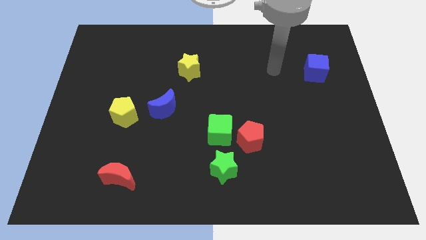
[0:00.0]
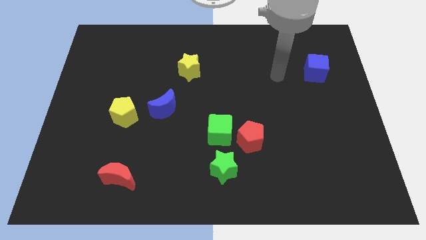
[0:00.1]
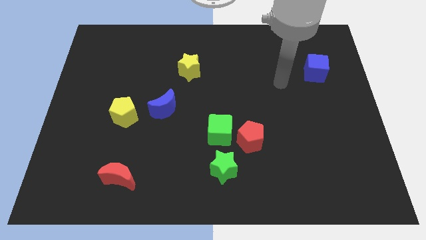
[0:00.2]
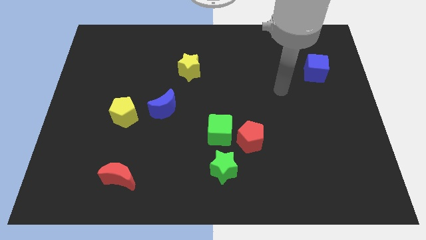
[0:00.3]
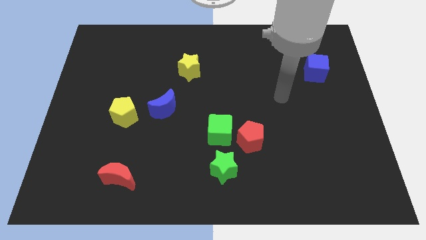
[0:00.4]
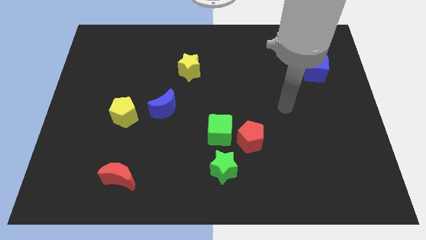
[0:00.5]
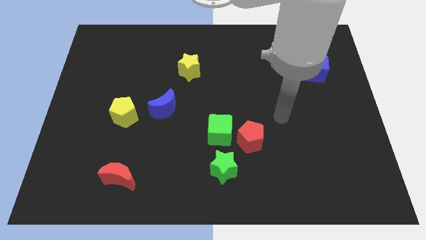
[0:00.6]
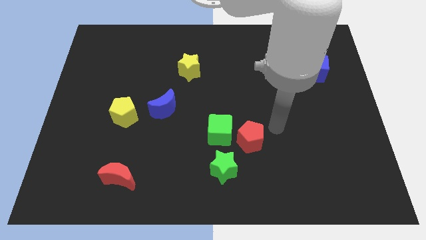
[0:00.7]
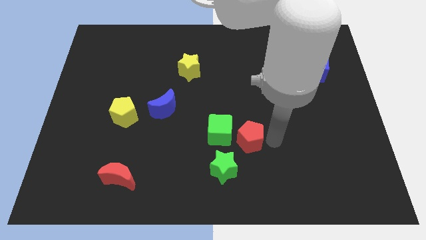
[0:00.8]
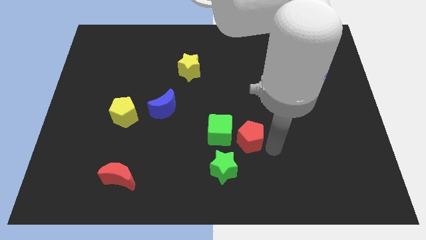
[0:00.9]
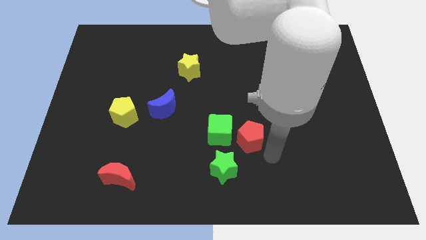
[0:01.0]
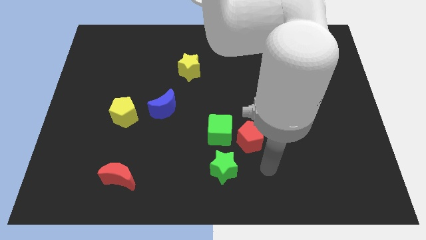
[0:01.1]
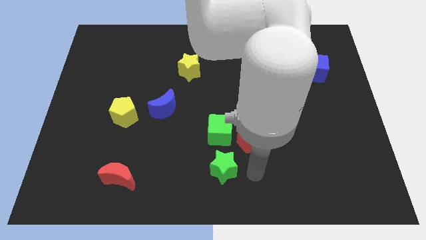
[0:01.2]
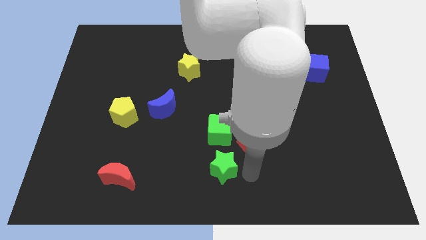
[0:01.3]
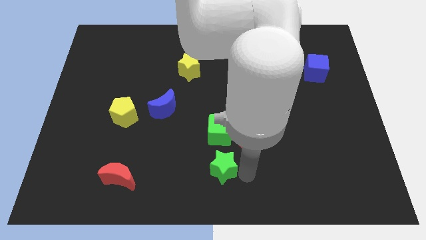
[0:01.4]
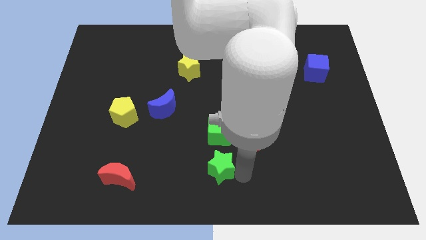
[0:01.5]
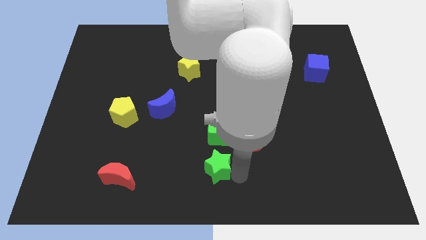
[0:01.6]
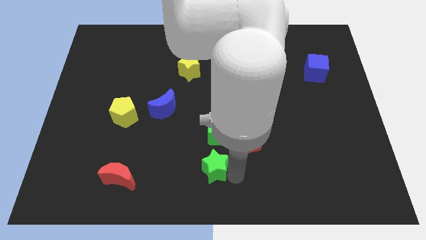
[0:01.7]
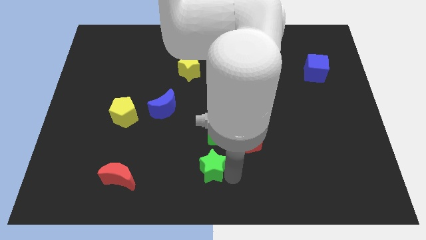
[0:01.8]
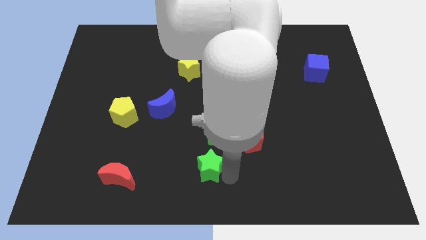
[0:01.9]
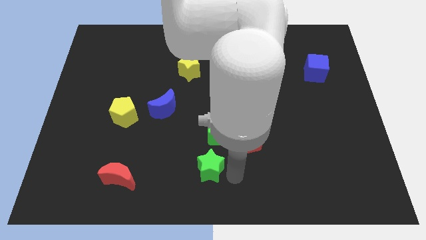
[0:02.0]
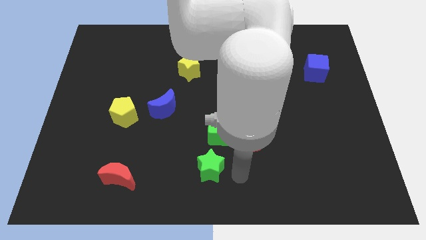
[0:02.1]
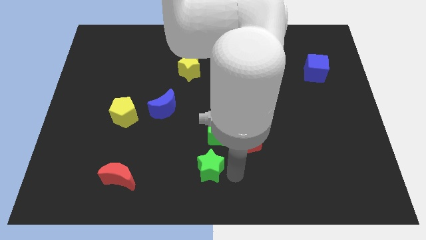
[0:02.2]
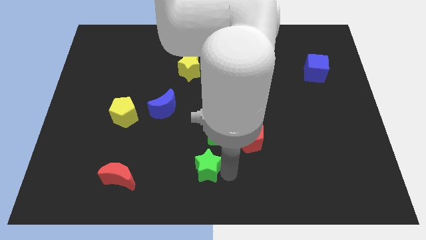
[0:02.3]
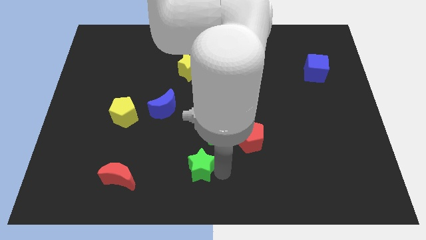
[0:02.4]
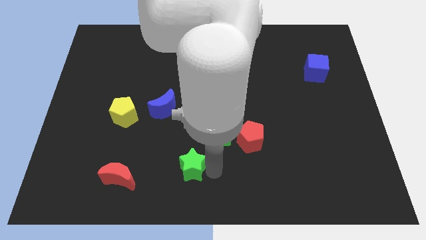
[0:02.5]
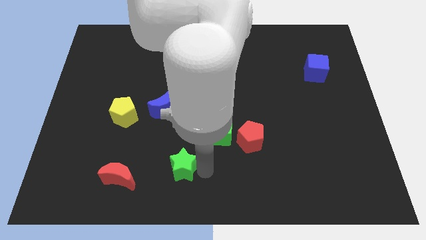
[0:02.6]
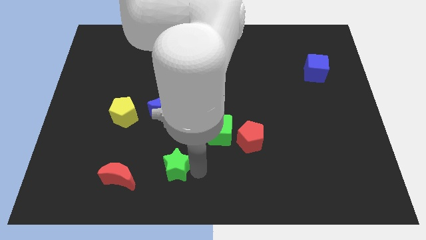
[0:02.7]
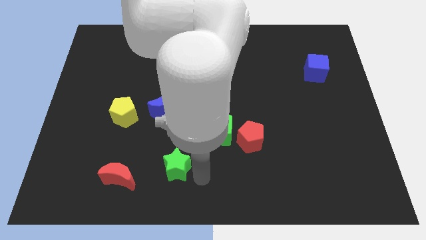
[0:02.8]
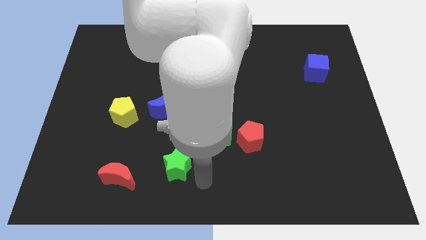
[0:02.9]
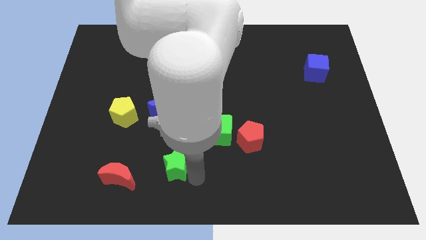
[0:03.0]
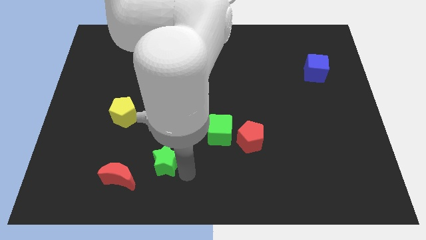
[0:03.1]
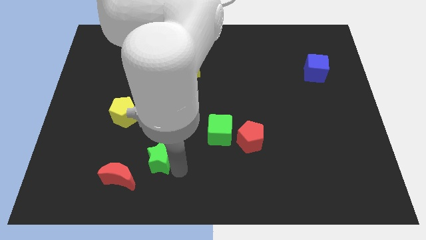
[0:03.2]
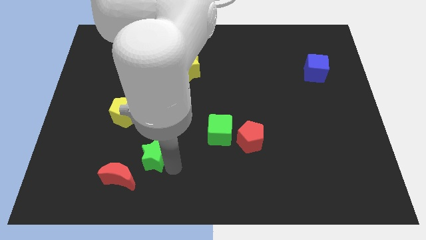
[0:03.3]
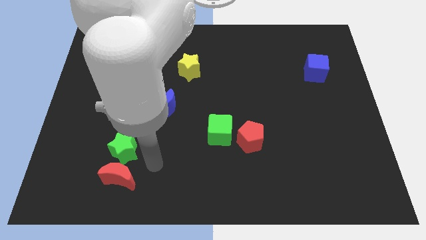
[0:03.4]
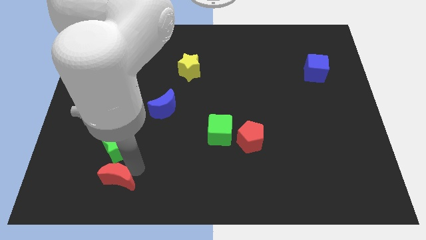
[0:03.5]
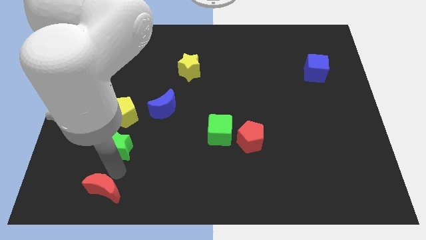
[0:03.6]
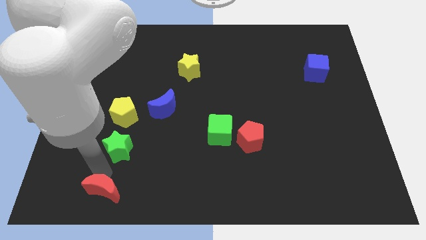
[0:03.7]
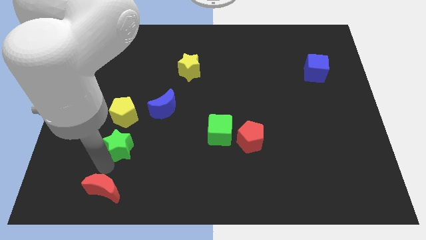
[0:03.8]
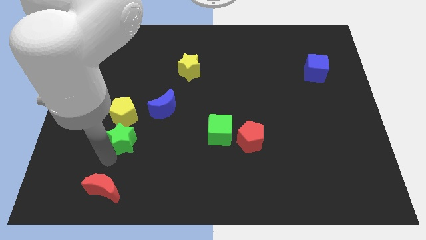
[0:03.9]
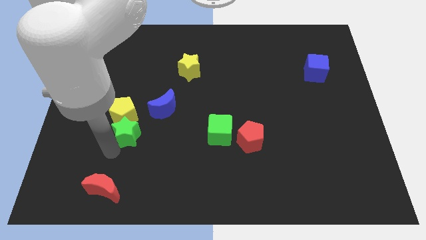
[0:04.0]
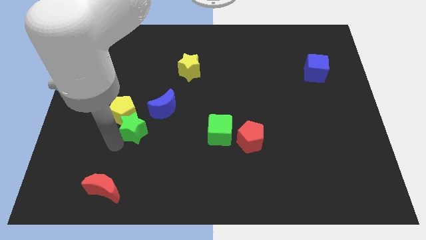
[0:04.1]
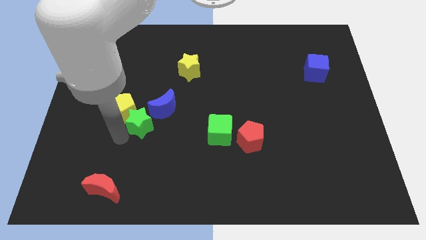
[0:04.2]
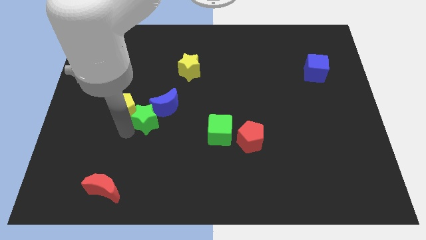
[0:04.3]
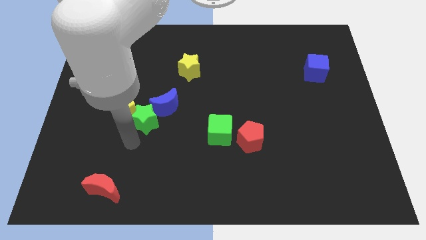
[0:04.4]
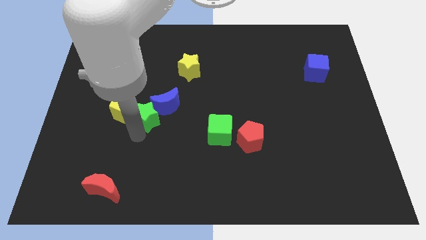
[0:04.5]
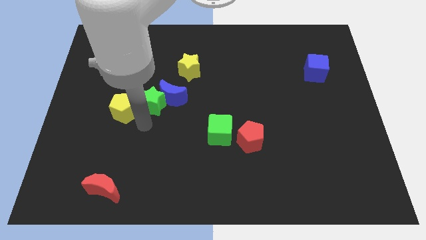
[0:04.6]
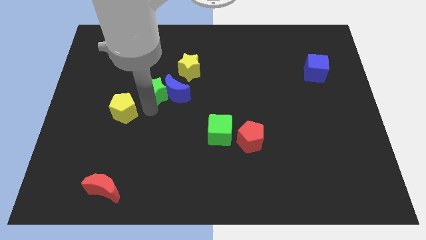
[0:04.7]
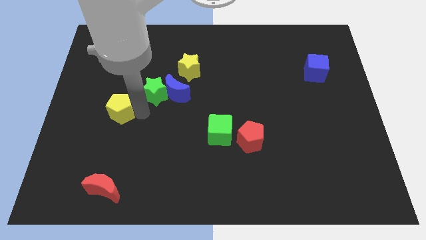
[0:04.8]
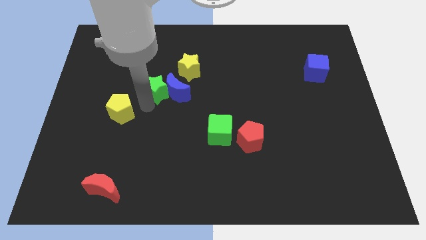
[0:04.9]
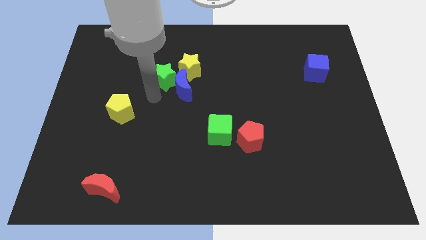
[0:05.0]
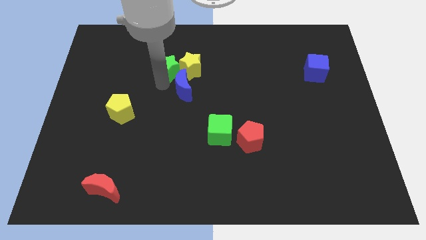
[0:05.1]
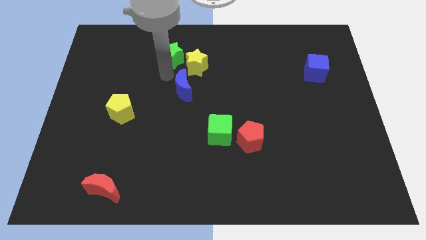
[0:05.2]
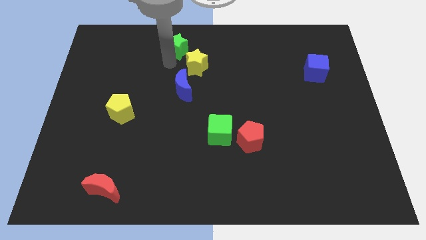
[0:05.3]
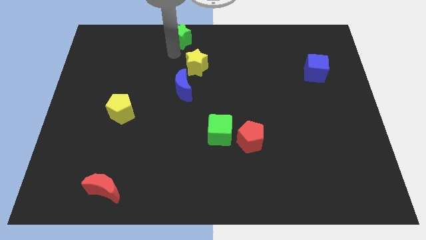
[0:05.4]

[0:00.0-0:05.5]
move the green star to the top

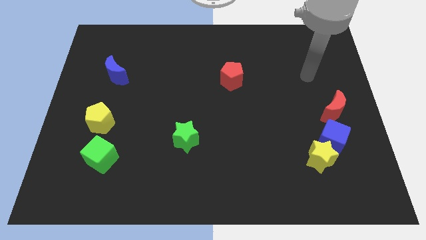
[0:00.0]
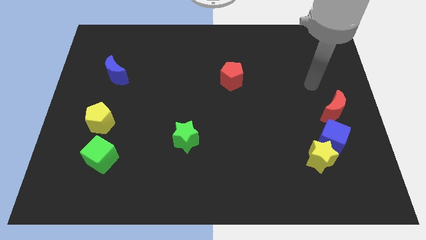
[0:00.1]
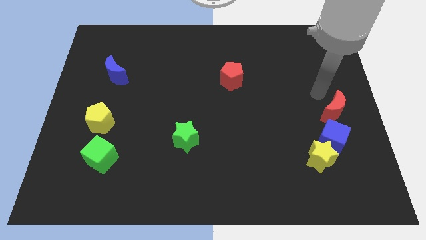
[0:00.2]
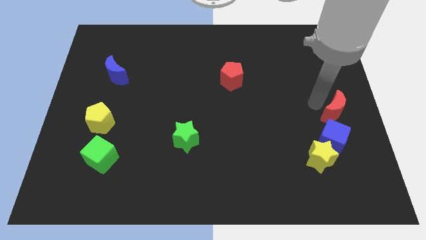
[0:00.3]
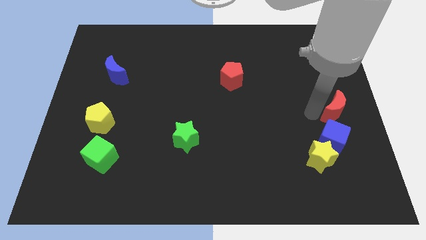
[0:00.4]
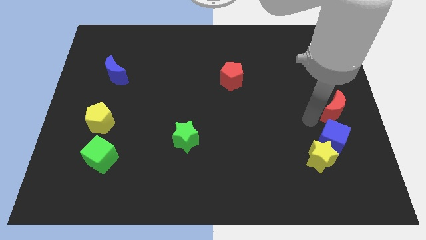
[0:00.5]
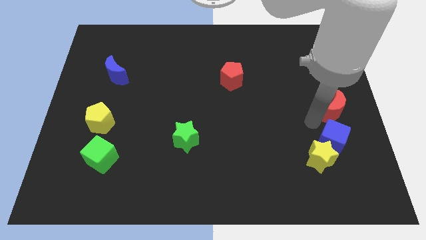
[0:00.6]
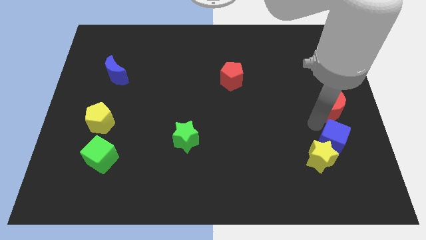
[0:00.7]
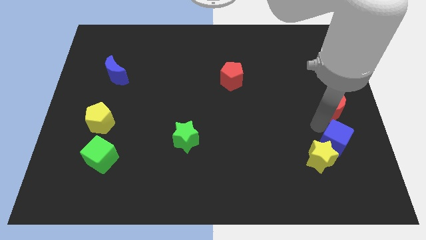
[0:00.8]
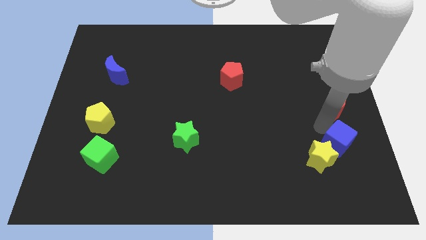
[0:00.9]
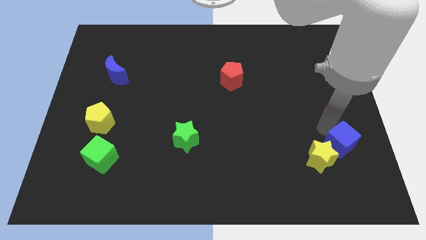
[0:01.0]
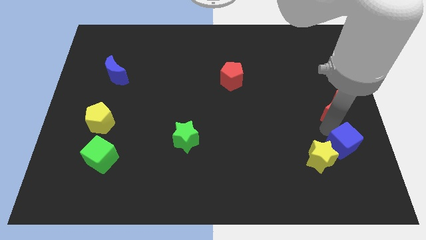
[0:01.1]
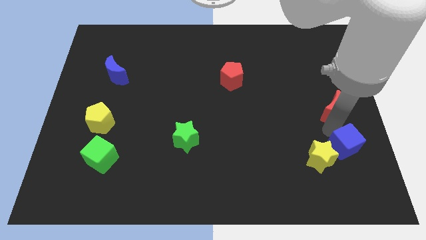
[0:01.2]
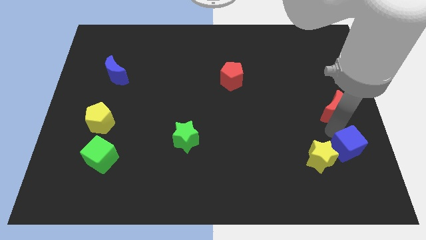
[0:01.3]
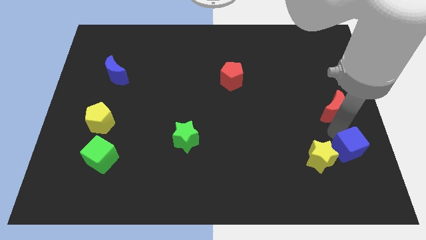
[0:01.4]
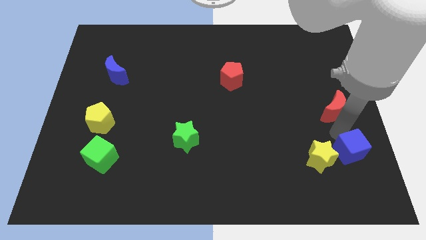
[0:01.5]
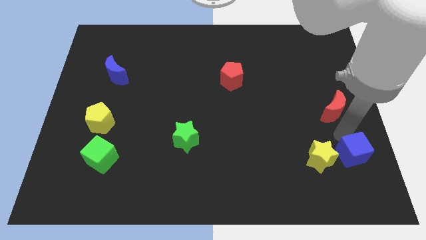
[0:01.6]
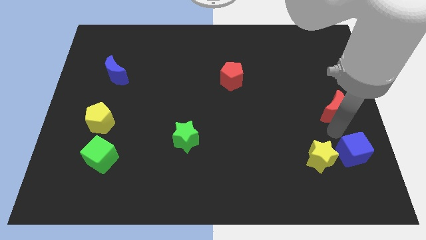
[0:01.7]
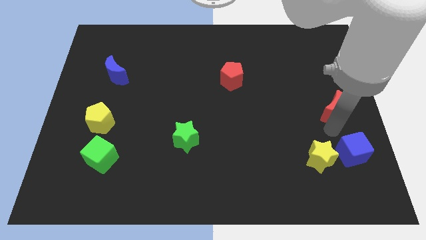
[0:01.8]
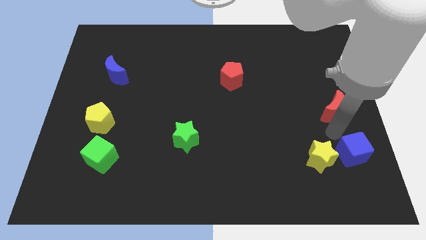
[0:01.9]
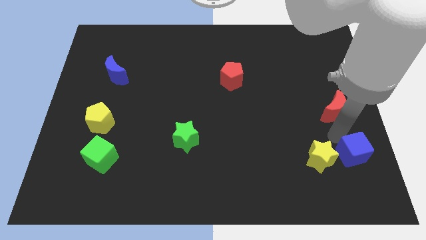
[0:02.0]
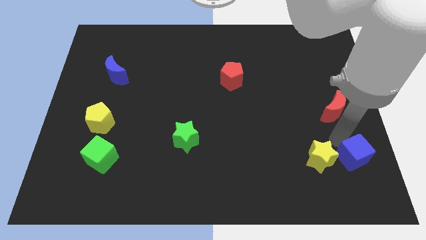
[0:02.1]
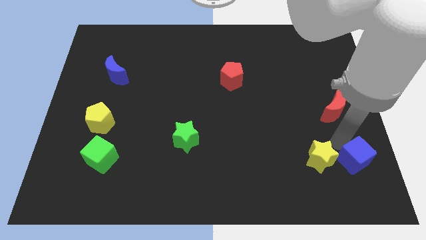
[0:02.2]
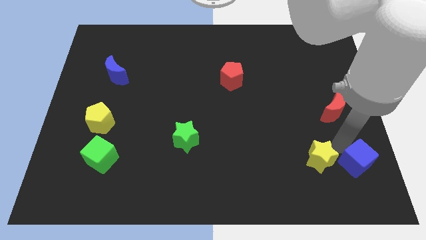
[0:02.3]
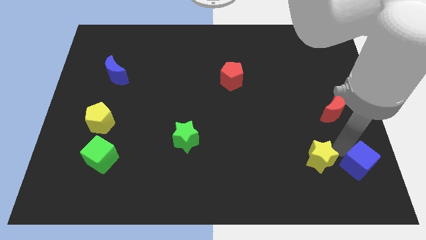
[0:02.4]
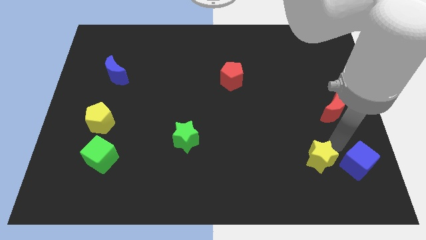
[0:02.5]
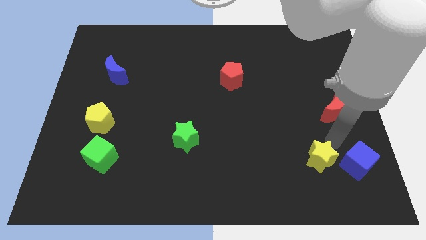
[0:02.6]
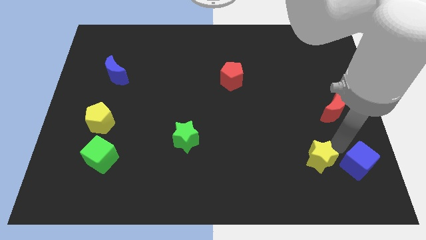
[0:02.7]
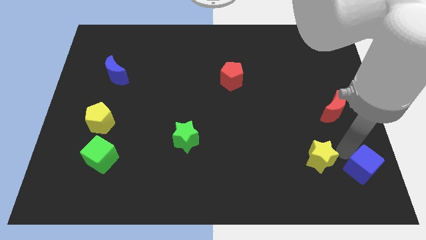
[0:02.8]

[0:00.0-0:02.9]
move the blue cube to the bottom right corner
